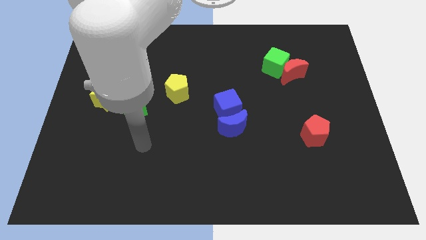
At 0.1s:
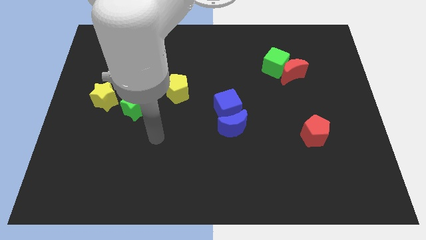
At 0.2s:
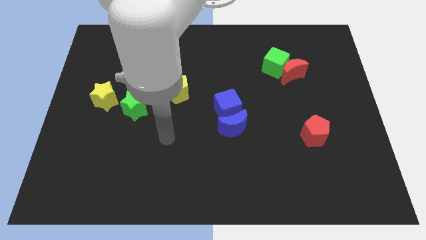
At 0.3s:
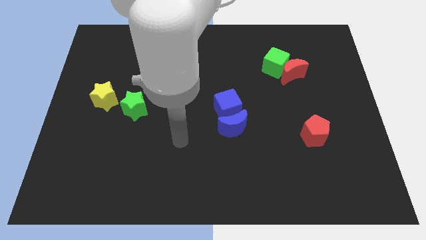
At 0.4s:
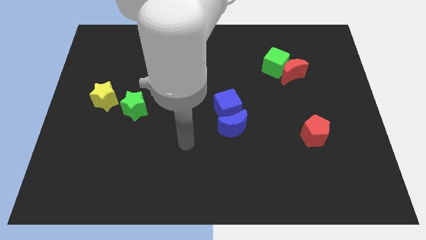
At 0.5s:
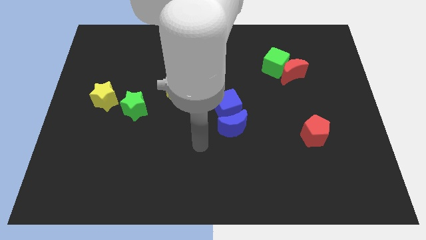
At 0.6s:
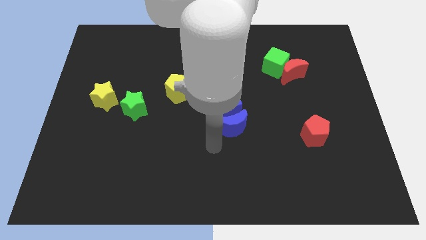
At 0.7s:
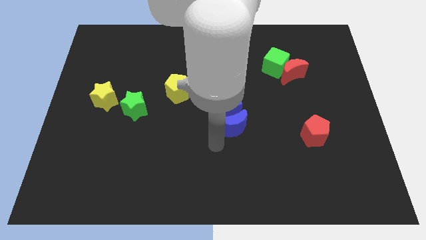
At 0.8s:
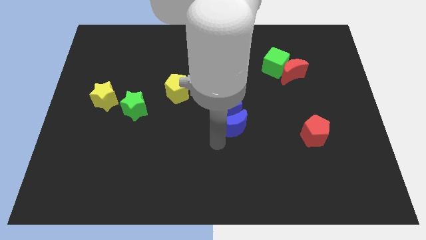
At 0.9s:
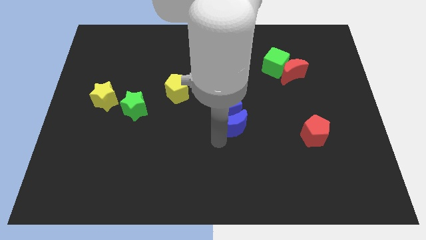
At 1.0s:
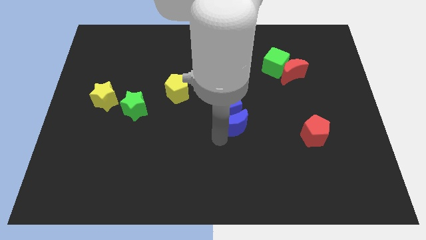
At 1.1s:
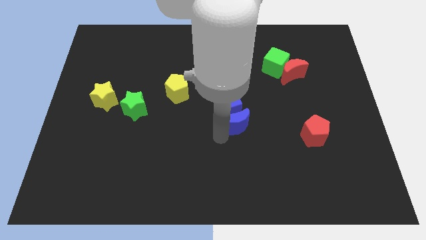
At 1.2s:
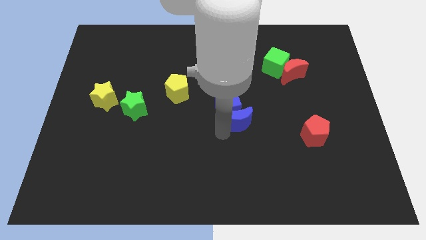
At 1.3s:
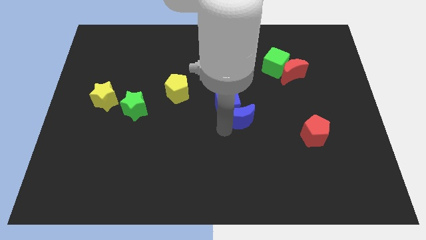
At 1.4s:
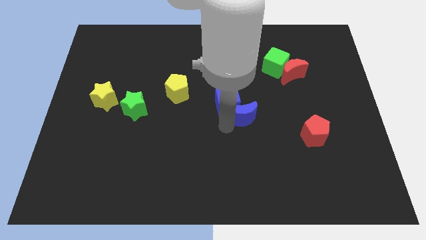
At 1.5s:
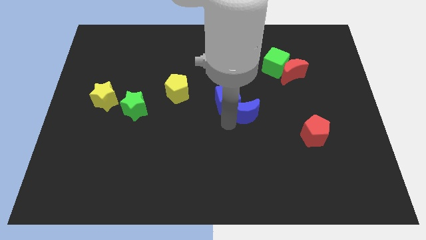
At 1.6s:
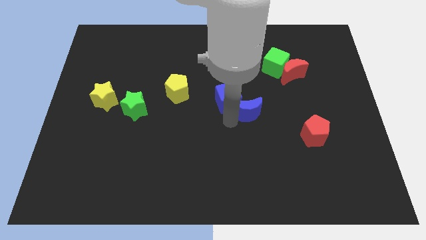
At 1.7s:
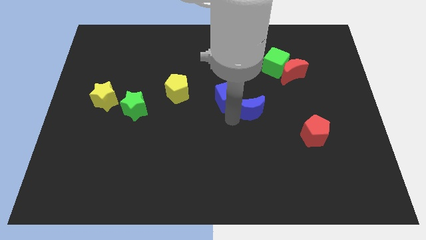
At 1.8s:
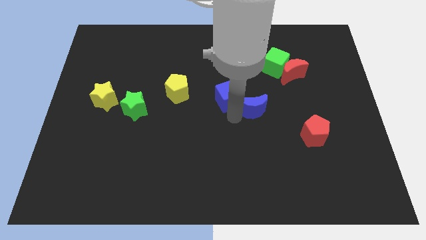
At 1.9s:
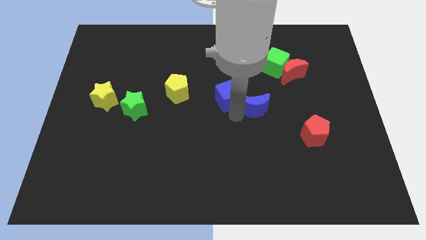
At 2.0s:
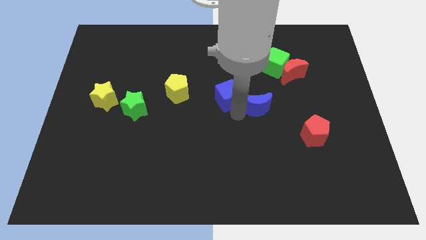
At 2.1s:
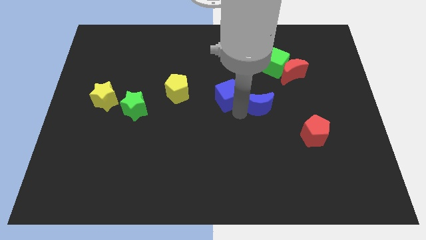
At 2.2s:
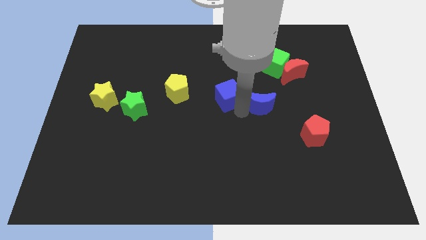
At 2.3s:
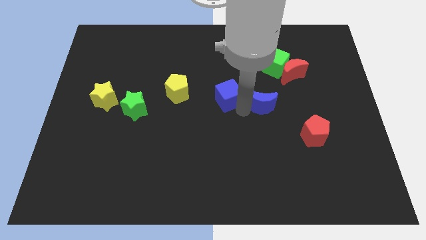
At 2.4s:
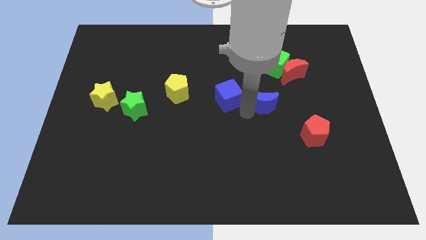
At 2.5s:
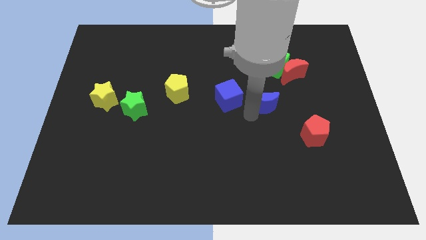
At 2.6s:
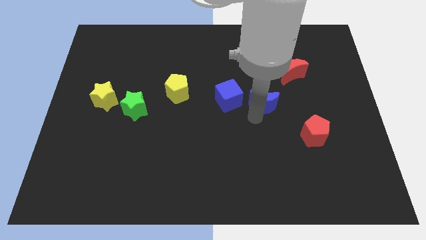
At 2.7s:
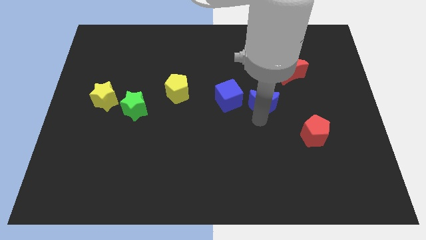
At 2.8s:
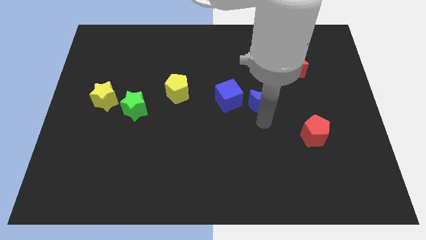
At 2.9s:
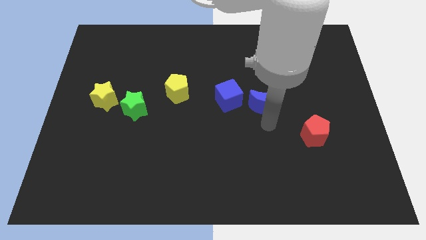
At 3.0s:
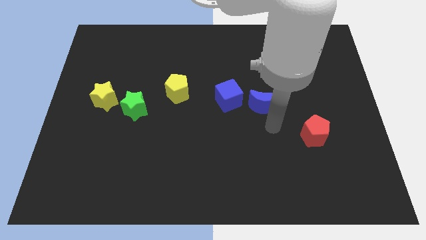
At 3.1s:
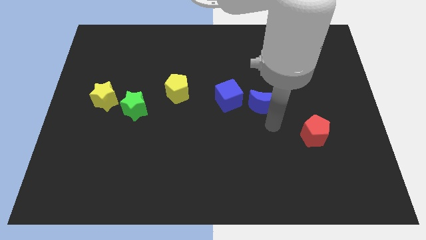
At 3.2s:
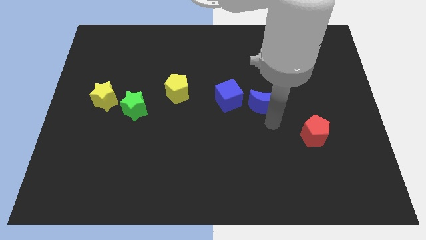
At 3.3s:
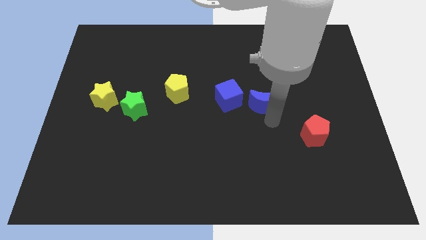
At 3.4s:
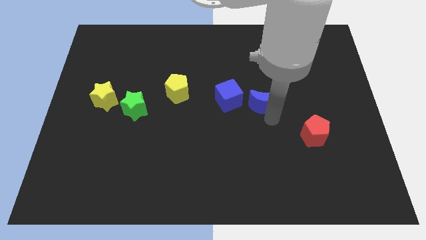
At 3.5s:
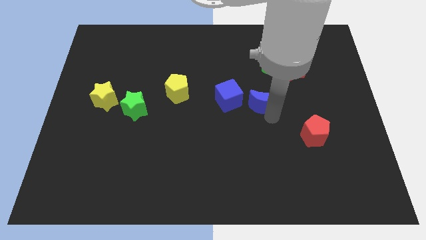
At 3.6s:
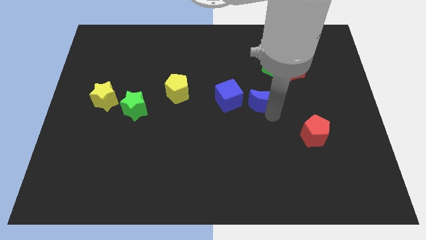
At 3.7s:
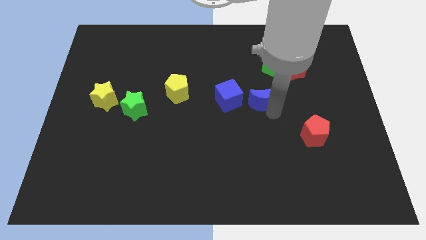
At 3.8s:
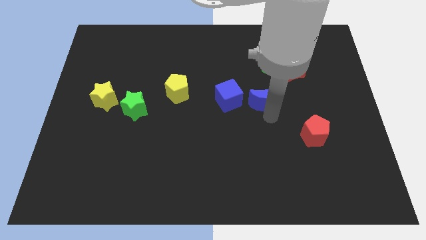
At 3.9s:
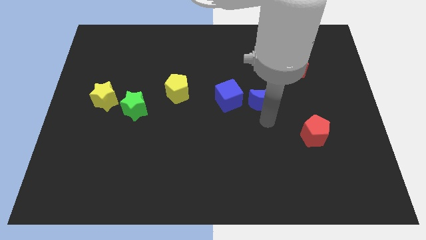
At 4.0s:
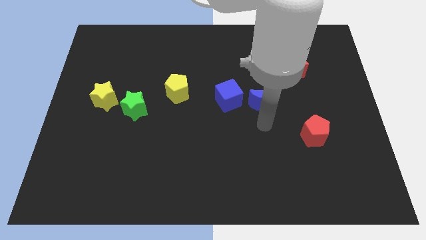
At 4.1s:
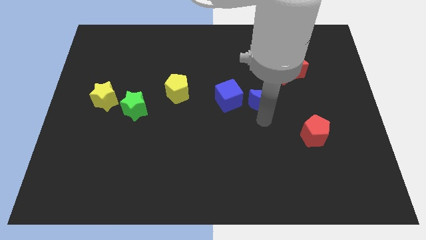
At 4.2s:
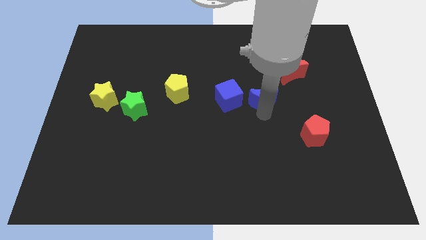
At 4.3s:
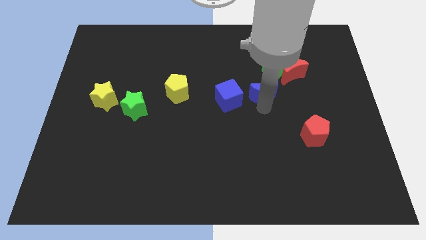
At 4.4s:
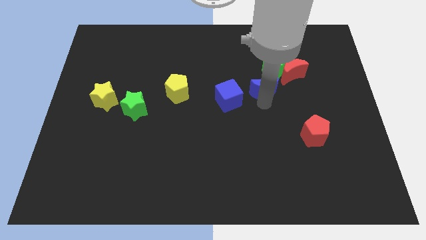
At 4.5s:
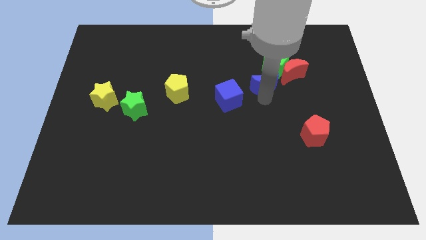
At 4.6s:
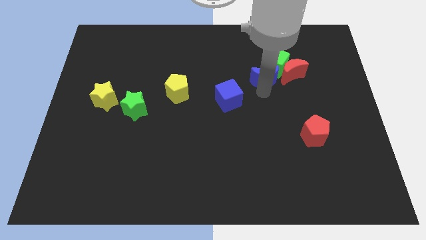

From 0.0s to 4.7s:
slide the blue moon towards the green cube

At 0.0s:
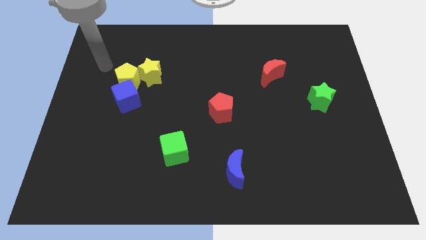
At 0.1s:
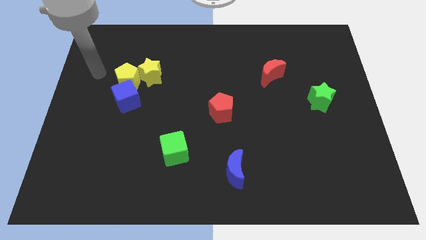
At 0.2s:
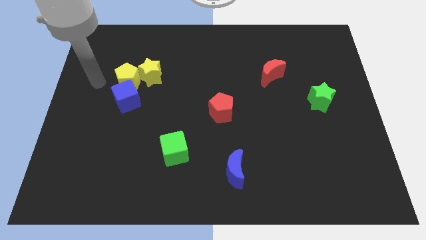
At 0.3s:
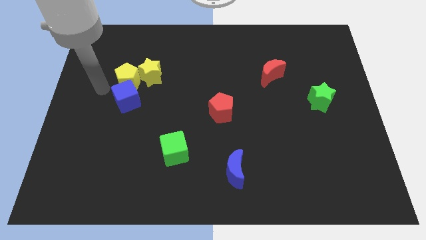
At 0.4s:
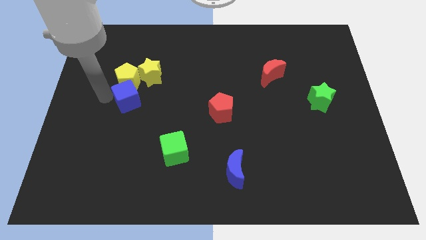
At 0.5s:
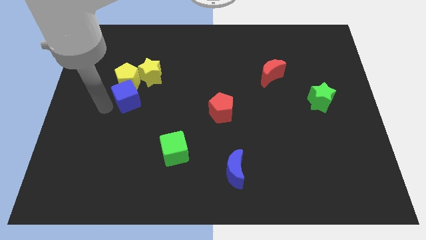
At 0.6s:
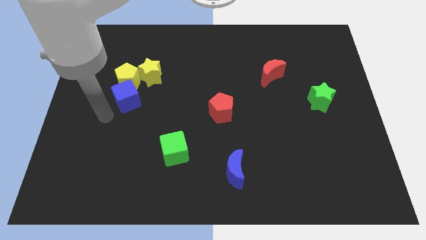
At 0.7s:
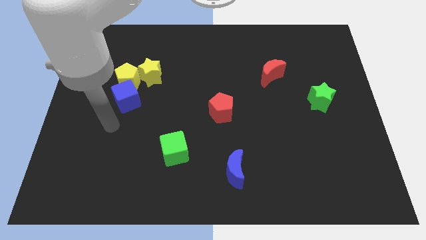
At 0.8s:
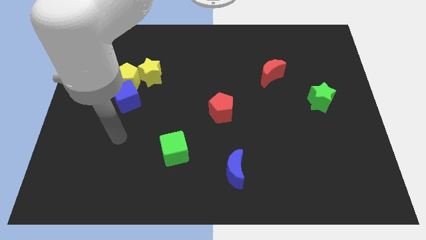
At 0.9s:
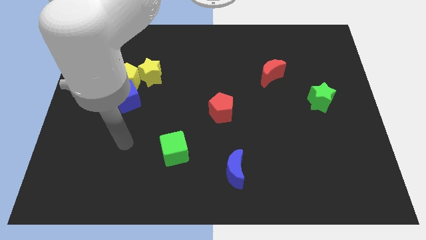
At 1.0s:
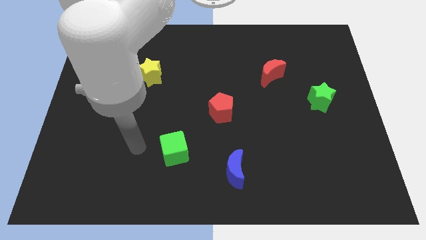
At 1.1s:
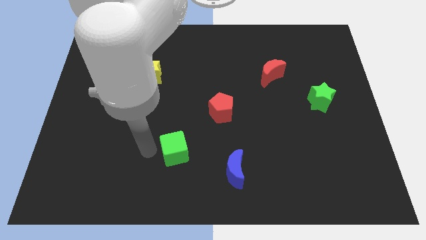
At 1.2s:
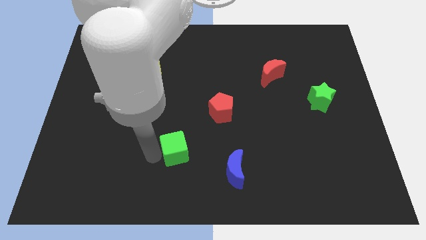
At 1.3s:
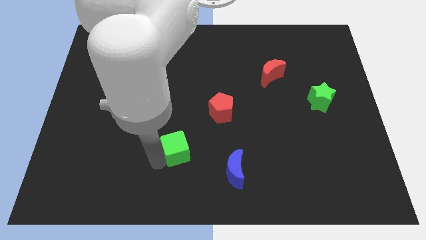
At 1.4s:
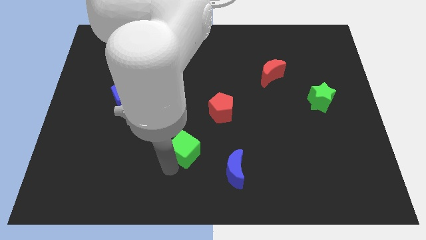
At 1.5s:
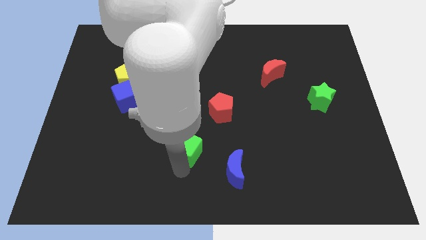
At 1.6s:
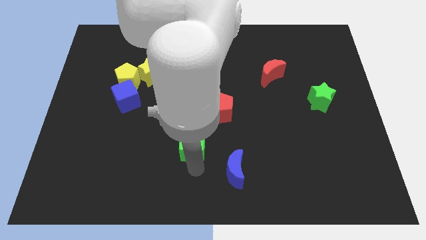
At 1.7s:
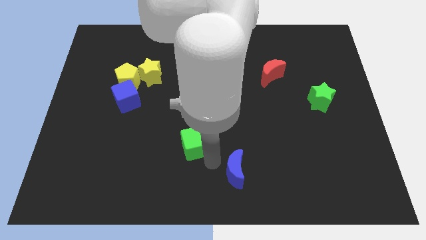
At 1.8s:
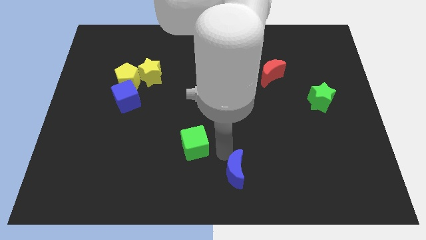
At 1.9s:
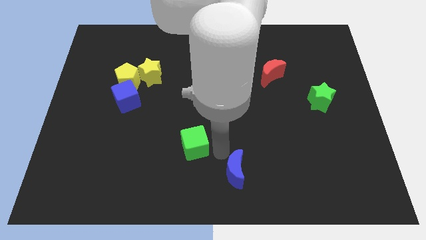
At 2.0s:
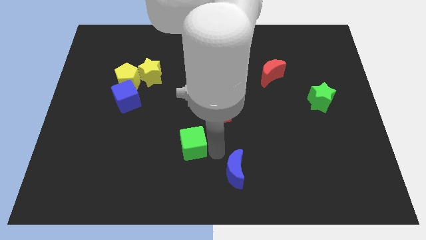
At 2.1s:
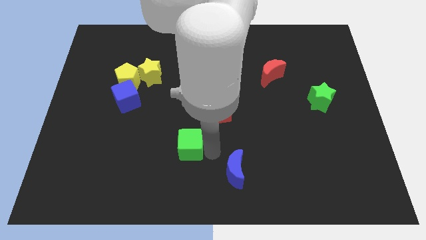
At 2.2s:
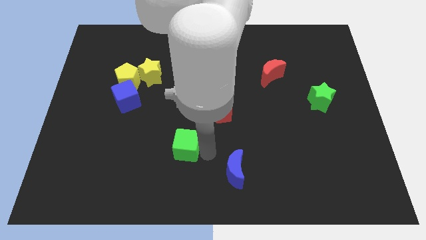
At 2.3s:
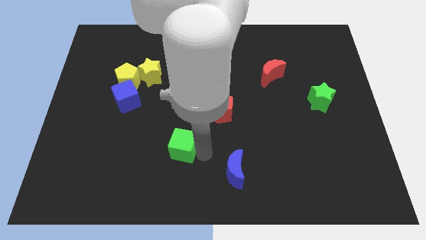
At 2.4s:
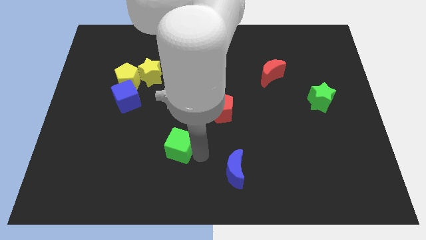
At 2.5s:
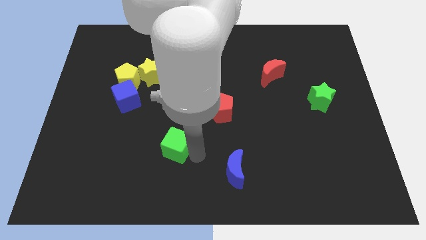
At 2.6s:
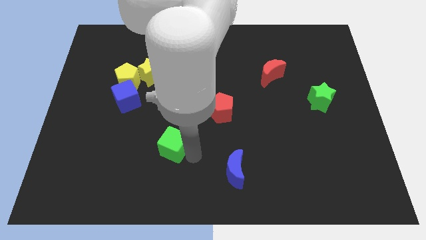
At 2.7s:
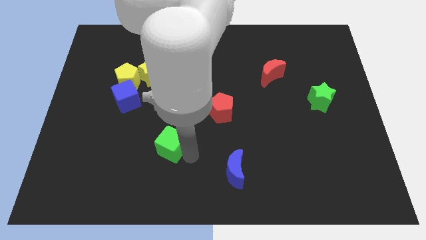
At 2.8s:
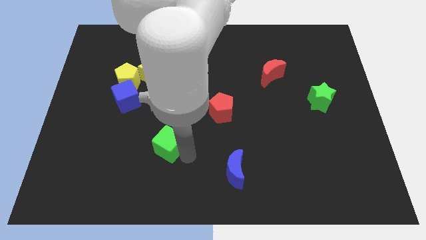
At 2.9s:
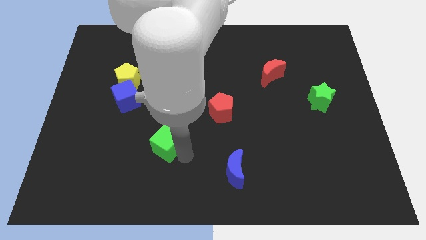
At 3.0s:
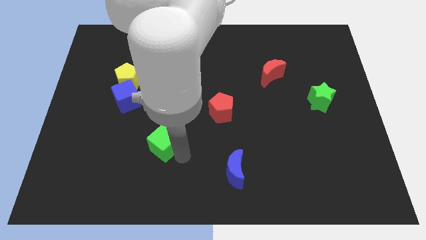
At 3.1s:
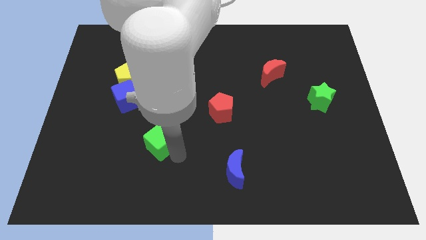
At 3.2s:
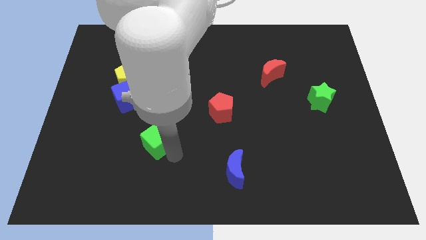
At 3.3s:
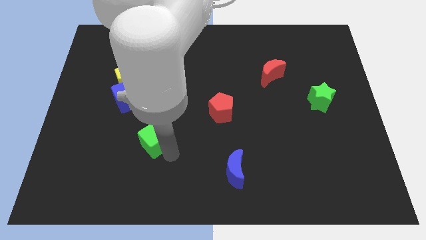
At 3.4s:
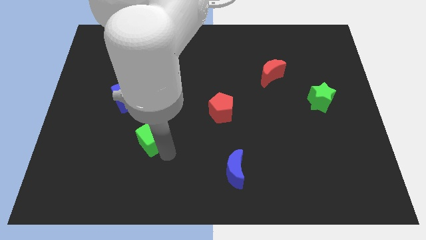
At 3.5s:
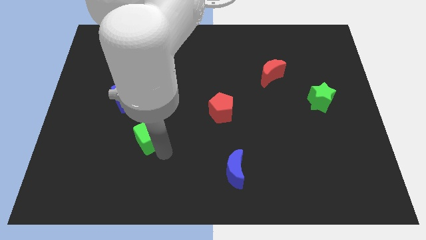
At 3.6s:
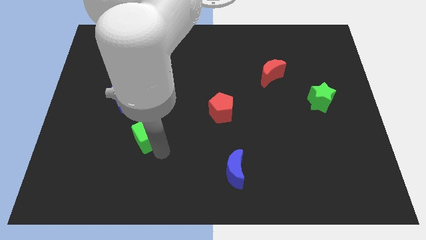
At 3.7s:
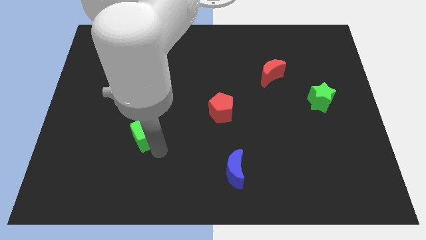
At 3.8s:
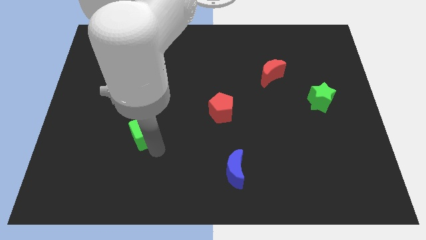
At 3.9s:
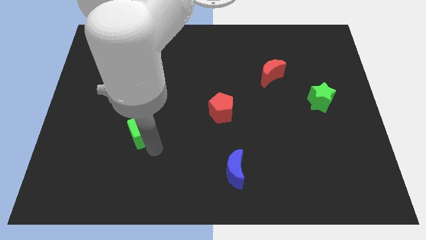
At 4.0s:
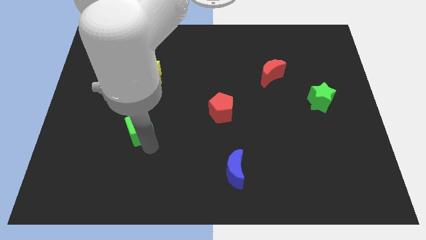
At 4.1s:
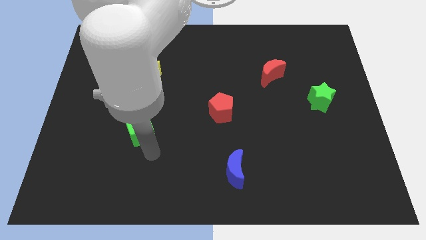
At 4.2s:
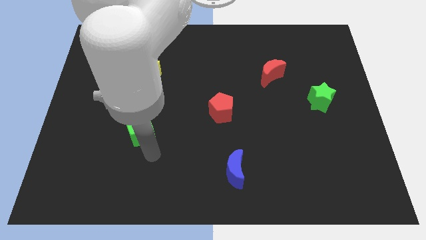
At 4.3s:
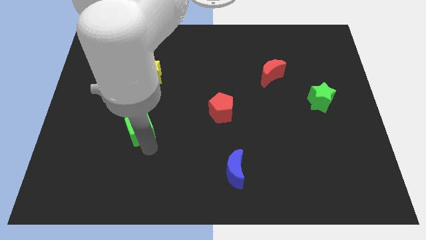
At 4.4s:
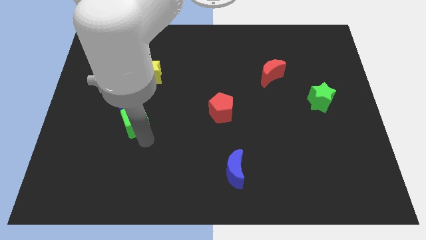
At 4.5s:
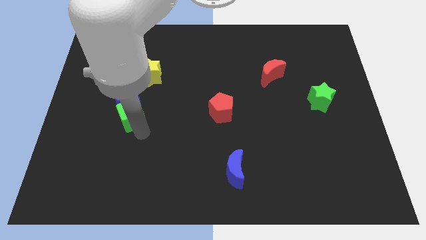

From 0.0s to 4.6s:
move the green cube to the blue cube
